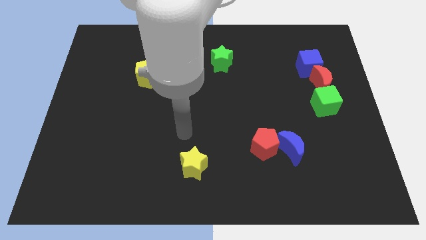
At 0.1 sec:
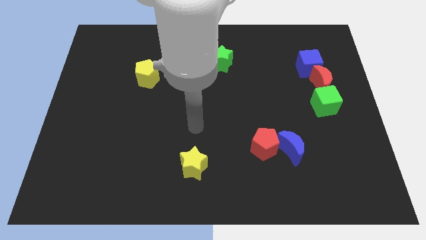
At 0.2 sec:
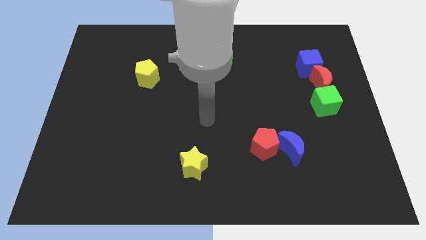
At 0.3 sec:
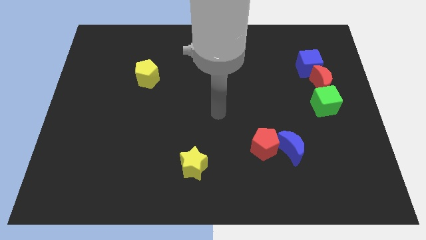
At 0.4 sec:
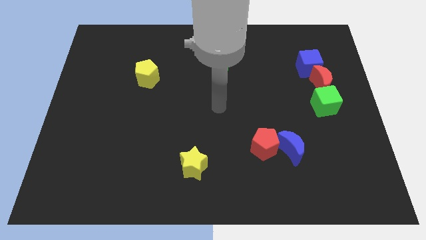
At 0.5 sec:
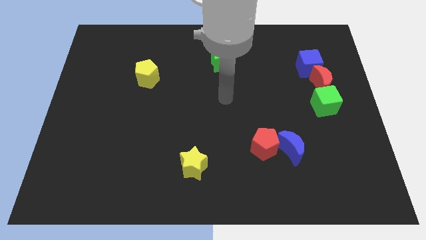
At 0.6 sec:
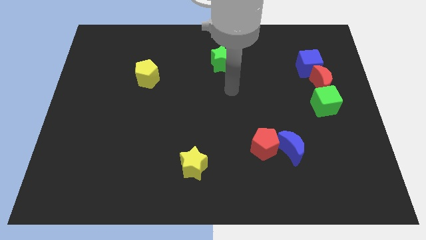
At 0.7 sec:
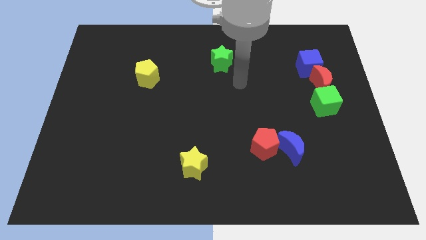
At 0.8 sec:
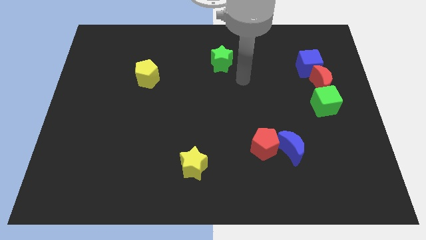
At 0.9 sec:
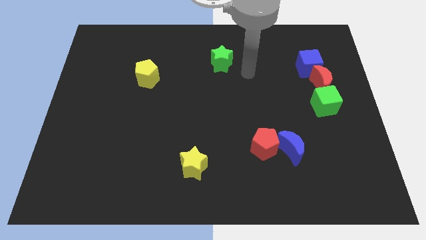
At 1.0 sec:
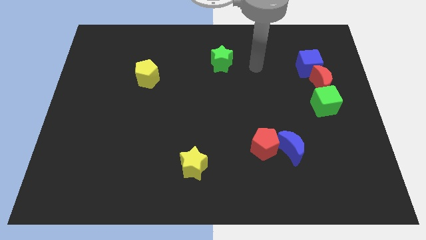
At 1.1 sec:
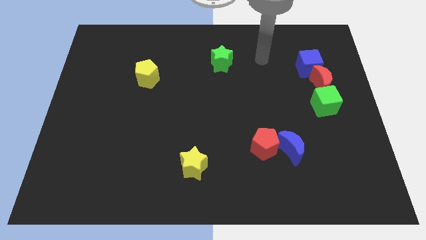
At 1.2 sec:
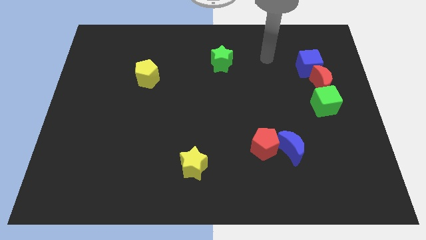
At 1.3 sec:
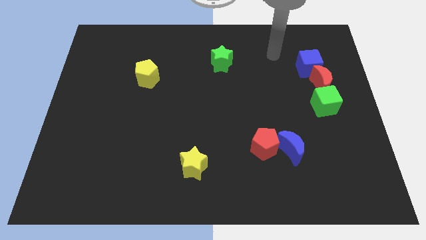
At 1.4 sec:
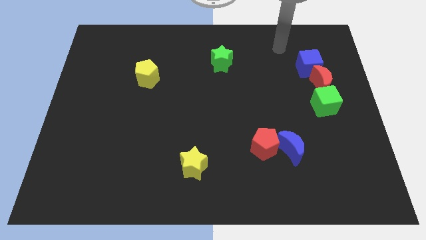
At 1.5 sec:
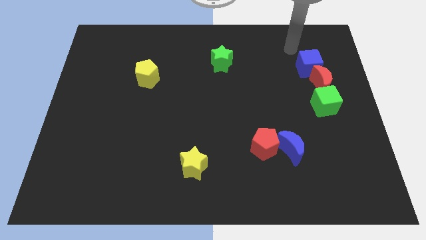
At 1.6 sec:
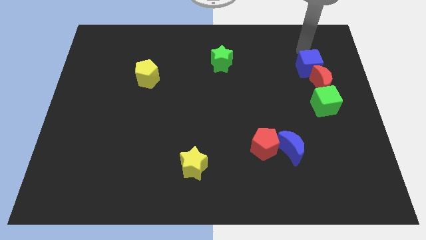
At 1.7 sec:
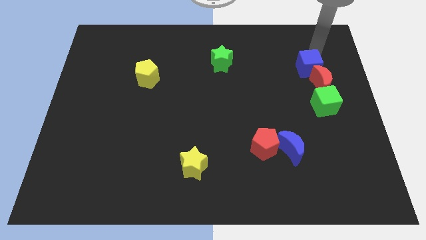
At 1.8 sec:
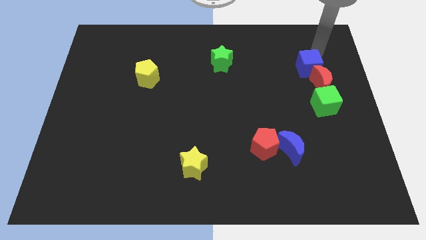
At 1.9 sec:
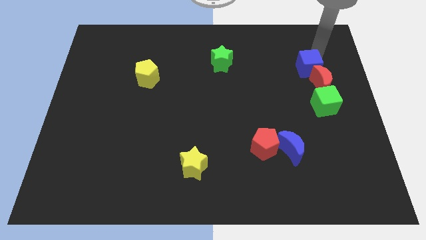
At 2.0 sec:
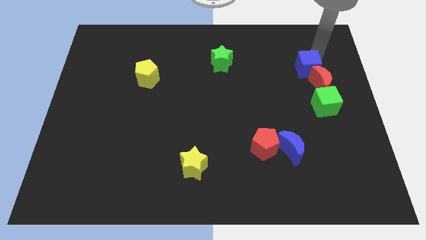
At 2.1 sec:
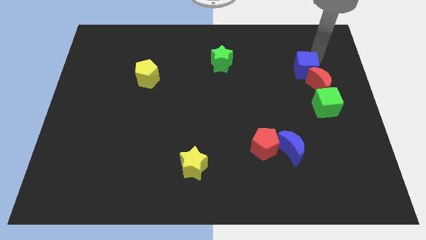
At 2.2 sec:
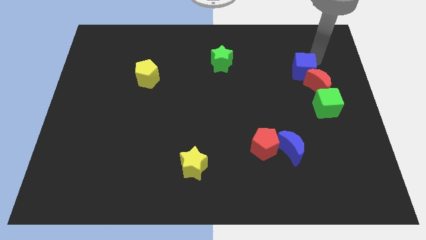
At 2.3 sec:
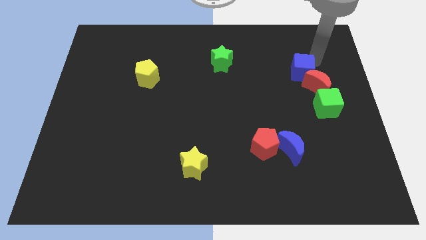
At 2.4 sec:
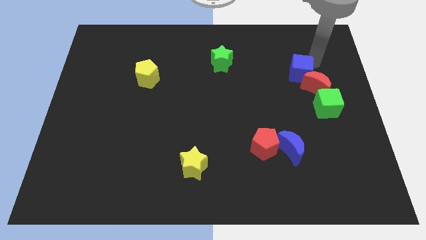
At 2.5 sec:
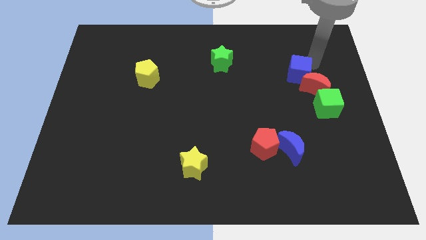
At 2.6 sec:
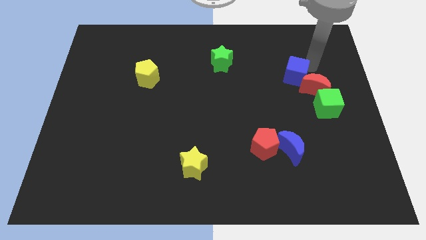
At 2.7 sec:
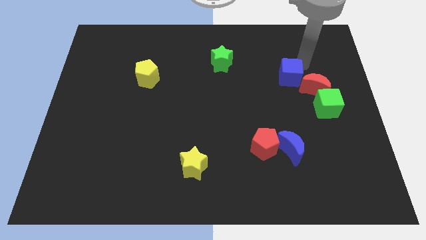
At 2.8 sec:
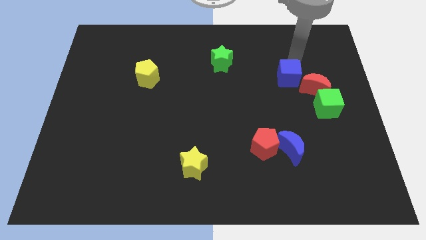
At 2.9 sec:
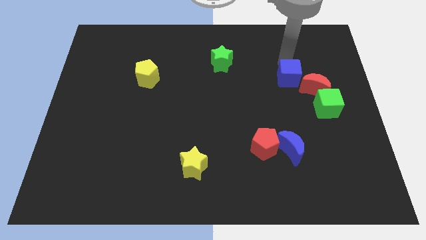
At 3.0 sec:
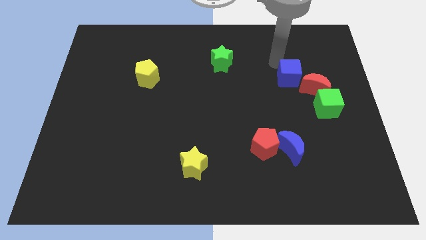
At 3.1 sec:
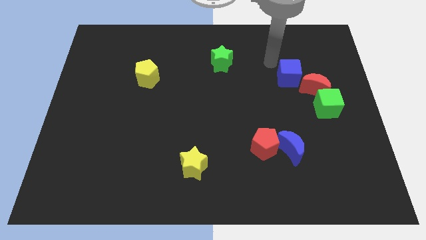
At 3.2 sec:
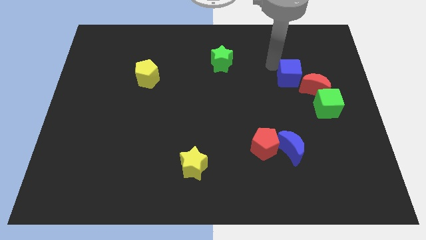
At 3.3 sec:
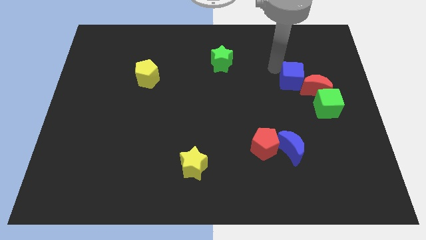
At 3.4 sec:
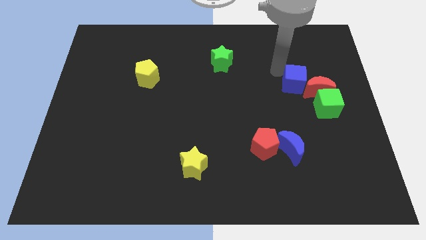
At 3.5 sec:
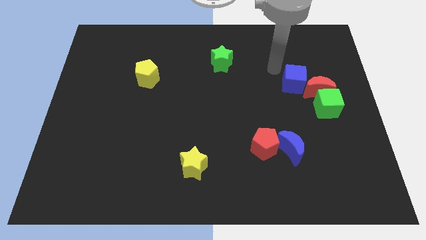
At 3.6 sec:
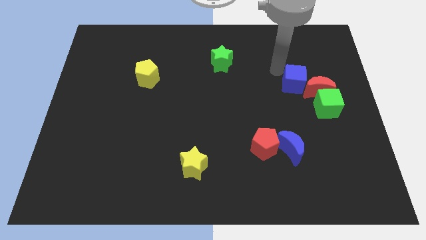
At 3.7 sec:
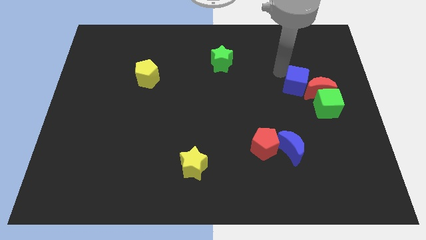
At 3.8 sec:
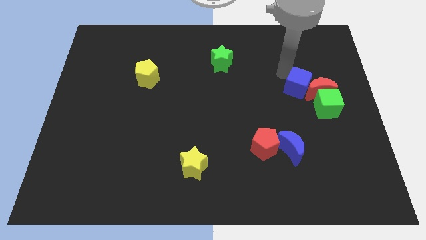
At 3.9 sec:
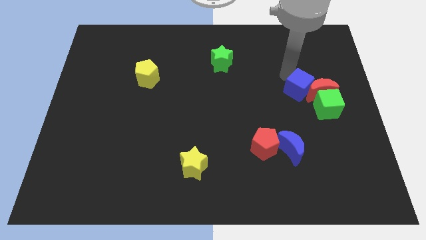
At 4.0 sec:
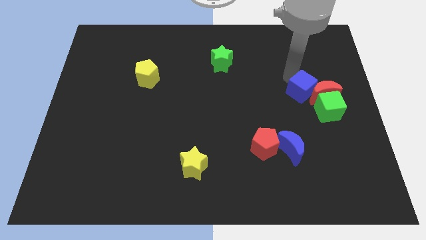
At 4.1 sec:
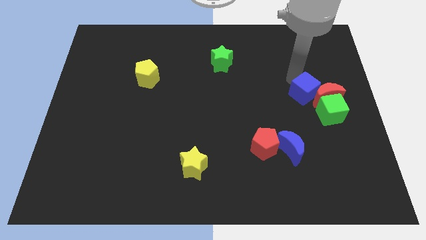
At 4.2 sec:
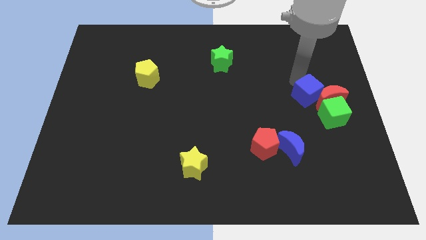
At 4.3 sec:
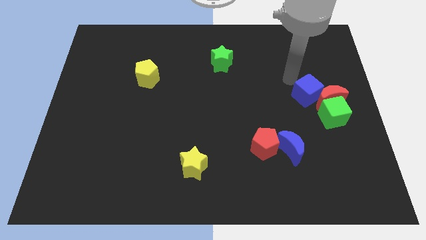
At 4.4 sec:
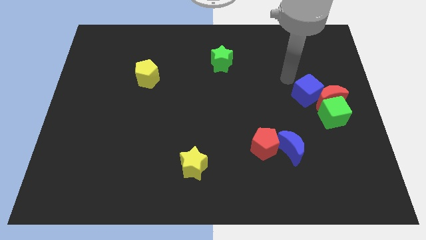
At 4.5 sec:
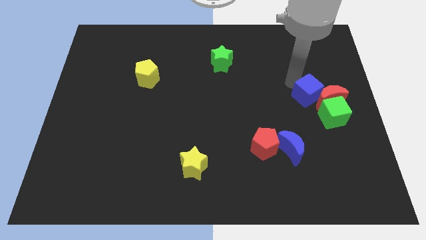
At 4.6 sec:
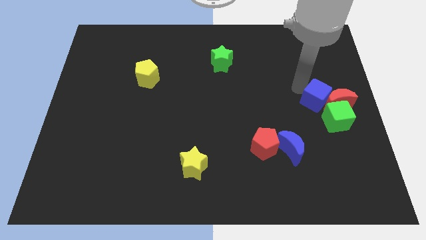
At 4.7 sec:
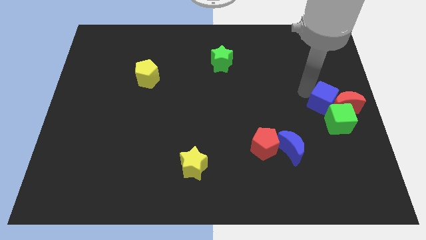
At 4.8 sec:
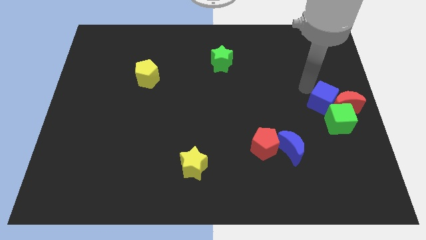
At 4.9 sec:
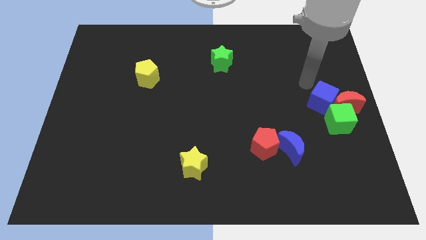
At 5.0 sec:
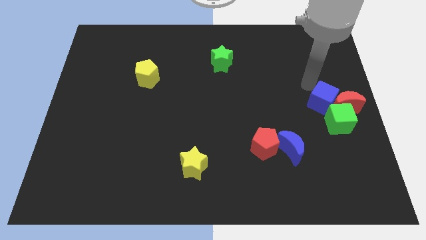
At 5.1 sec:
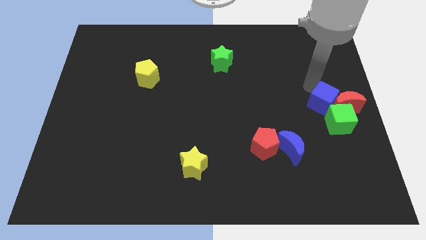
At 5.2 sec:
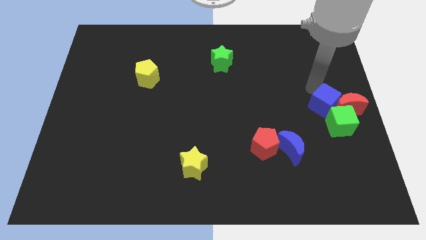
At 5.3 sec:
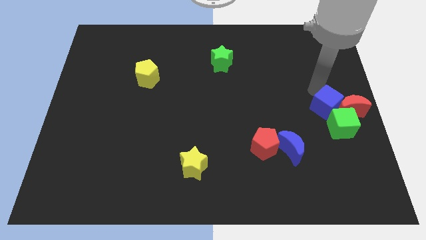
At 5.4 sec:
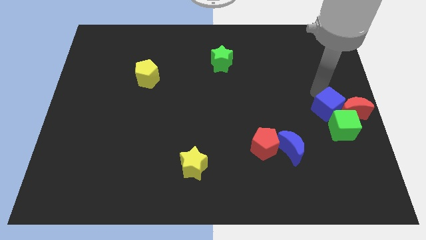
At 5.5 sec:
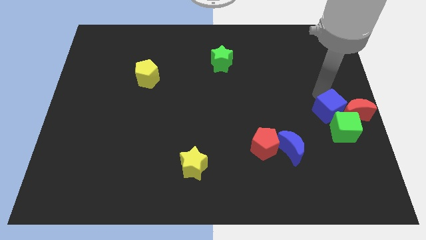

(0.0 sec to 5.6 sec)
move the blue cube towards the green cube

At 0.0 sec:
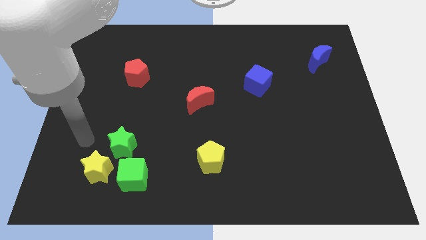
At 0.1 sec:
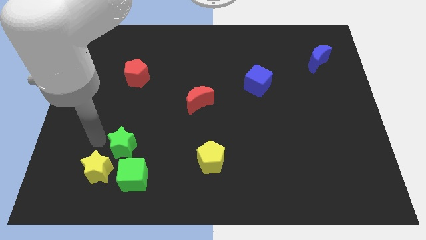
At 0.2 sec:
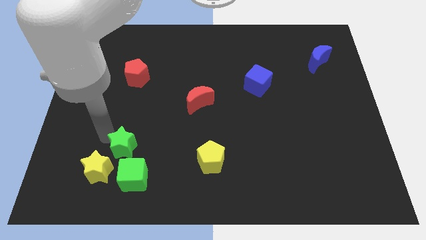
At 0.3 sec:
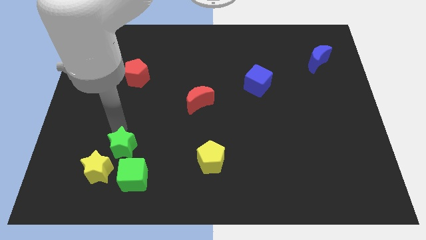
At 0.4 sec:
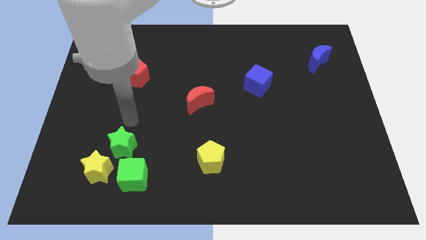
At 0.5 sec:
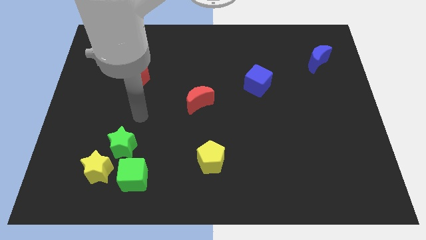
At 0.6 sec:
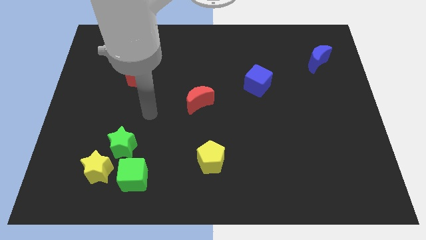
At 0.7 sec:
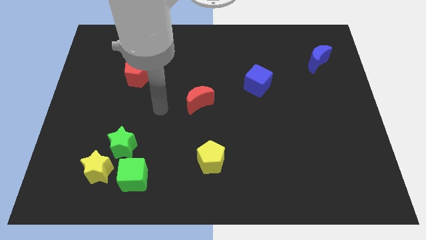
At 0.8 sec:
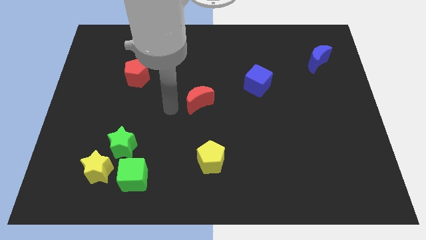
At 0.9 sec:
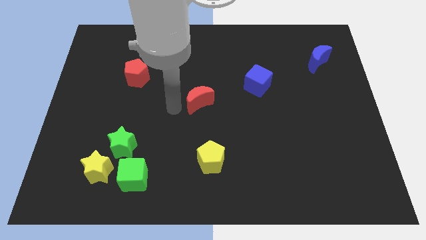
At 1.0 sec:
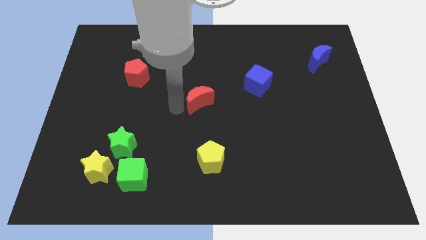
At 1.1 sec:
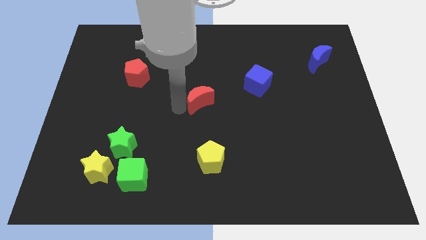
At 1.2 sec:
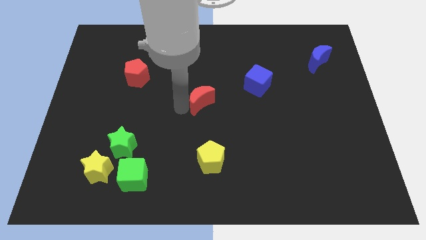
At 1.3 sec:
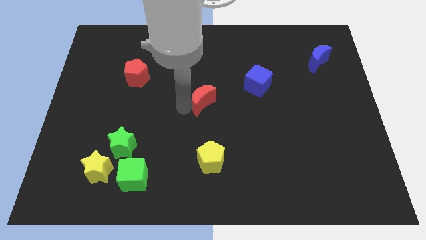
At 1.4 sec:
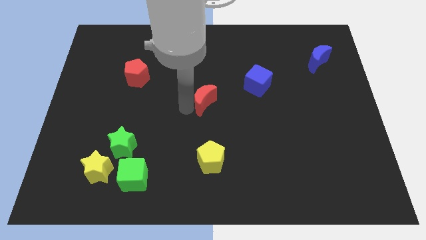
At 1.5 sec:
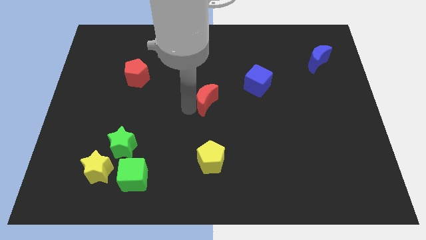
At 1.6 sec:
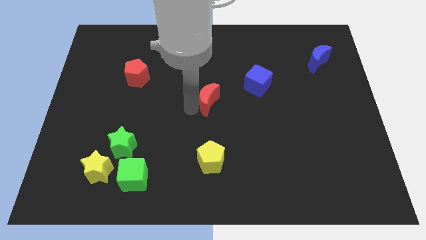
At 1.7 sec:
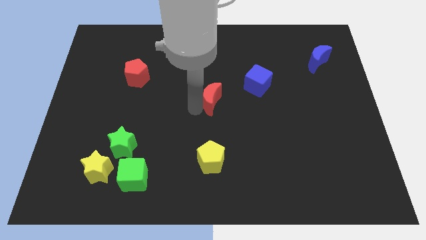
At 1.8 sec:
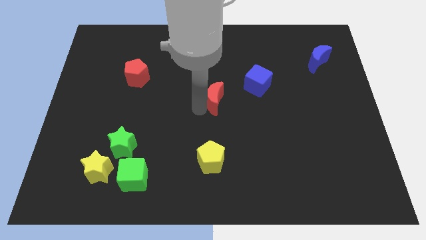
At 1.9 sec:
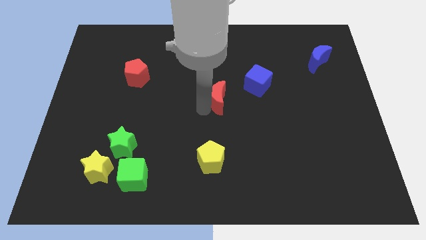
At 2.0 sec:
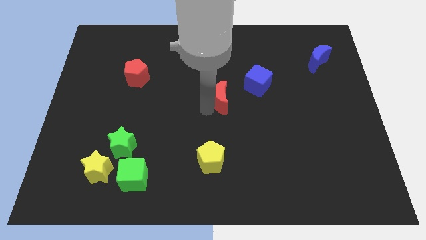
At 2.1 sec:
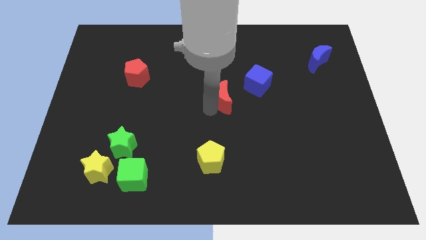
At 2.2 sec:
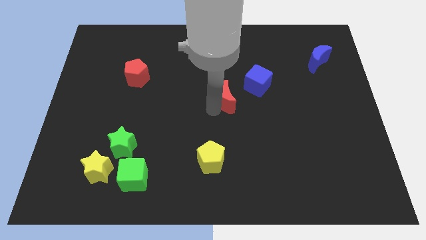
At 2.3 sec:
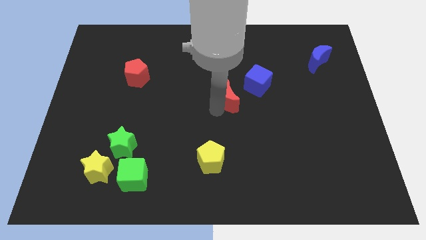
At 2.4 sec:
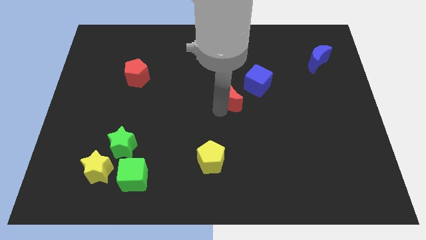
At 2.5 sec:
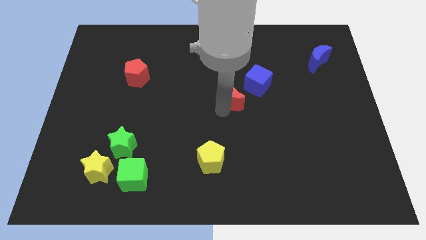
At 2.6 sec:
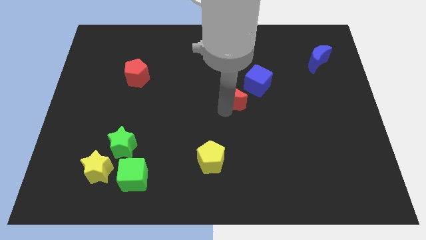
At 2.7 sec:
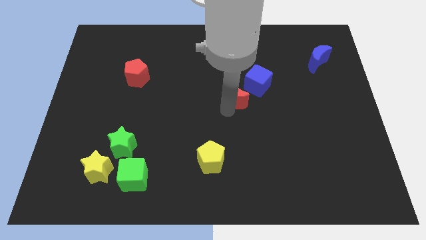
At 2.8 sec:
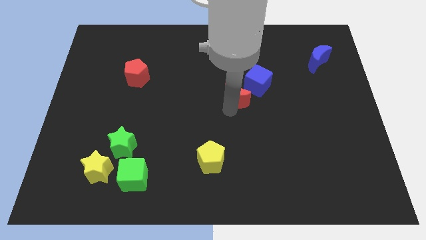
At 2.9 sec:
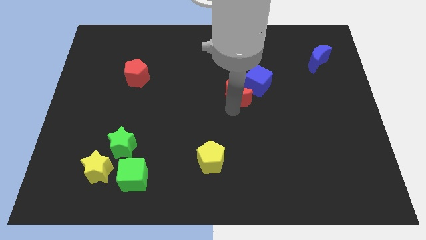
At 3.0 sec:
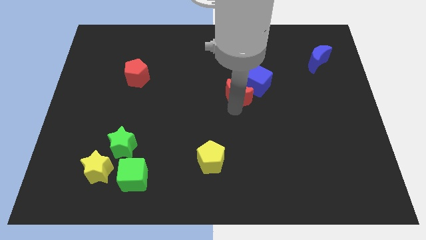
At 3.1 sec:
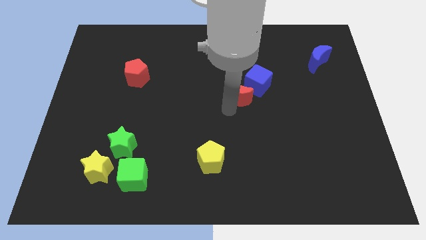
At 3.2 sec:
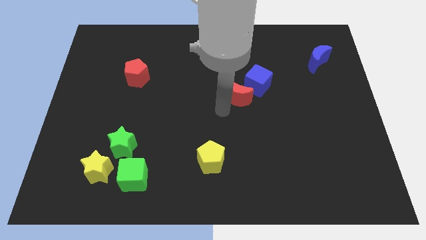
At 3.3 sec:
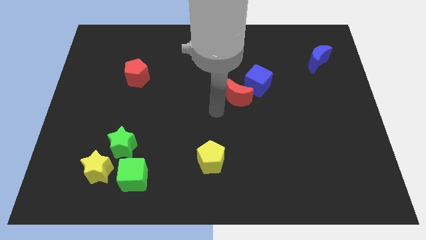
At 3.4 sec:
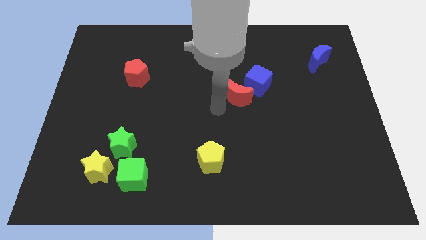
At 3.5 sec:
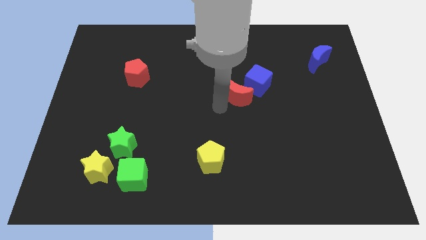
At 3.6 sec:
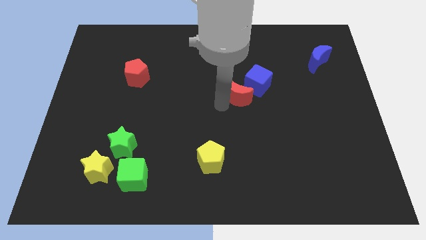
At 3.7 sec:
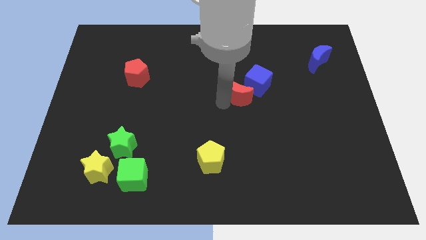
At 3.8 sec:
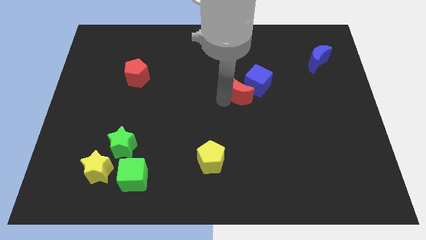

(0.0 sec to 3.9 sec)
slide the red moon to the blue cube
